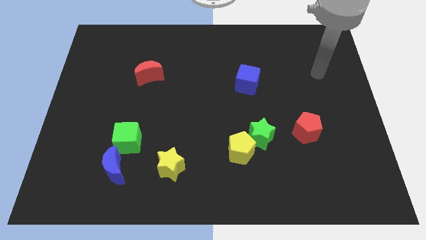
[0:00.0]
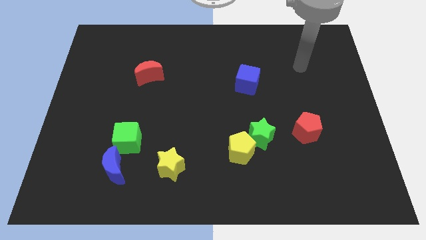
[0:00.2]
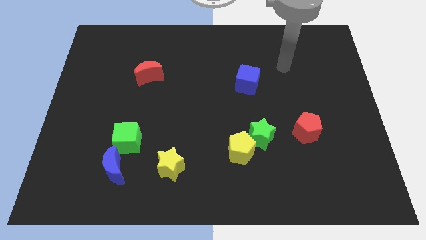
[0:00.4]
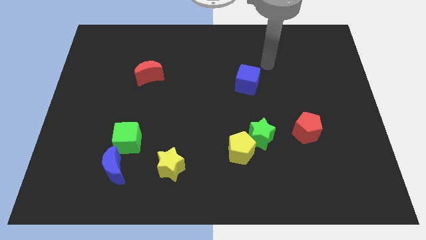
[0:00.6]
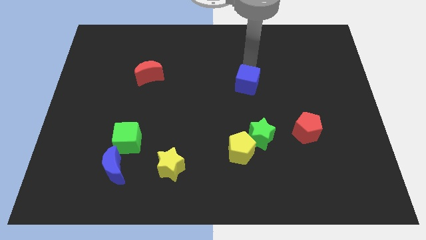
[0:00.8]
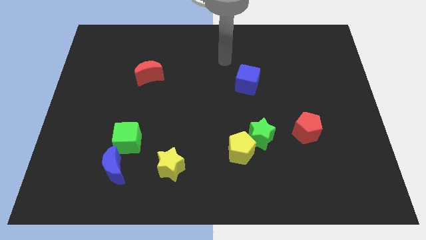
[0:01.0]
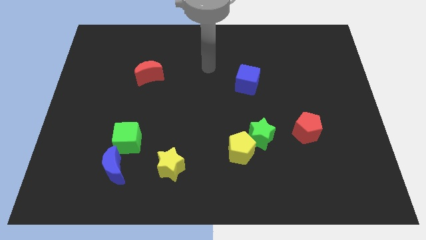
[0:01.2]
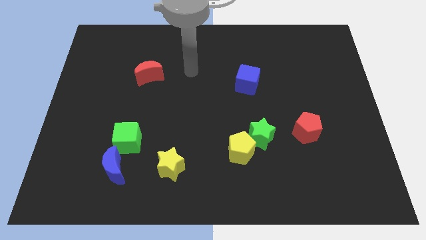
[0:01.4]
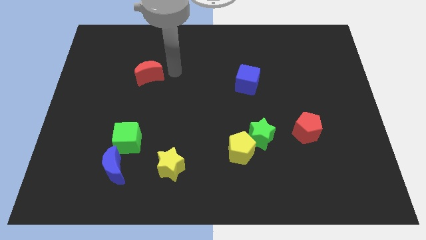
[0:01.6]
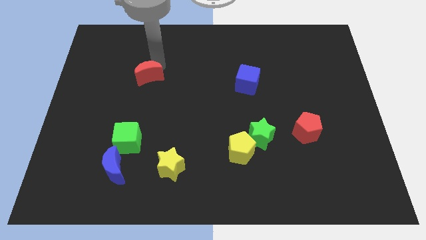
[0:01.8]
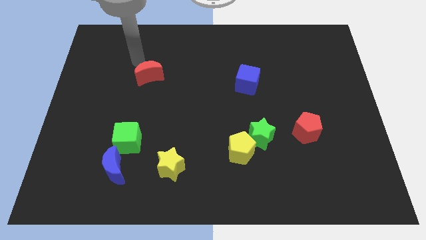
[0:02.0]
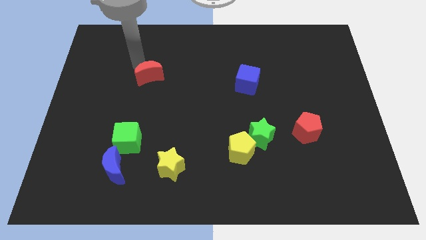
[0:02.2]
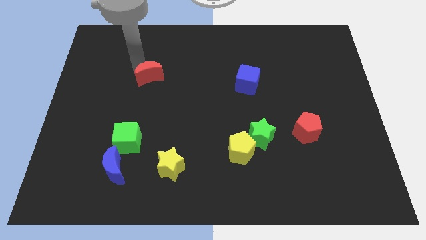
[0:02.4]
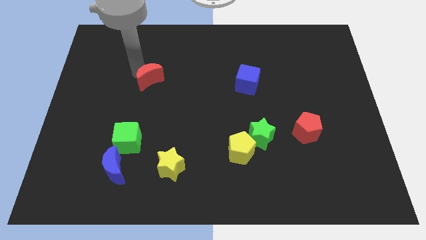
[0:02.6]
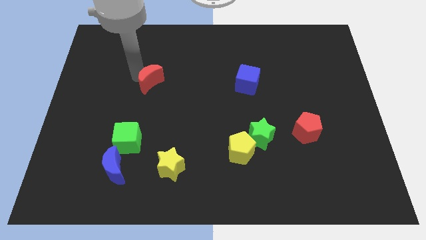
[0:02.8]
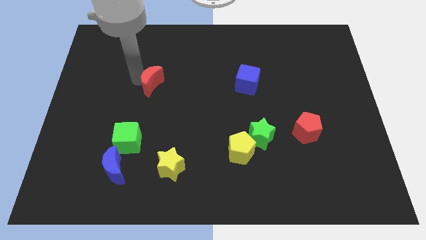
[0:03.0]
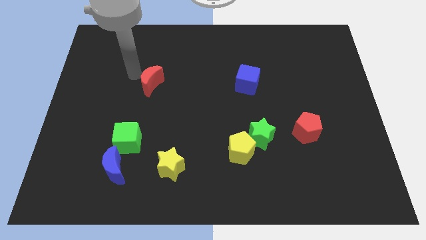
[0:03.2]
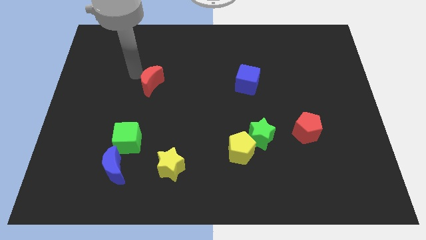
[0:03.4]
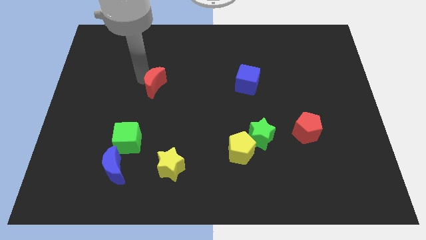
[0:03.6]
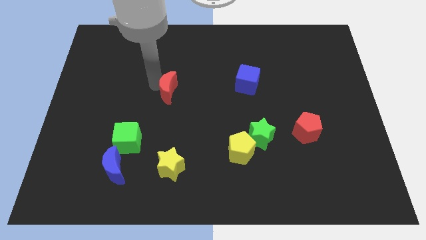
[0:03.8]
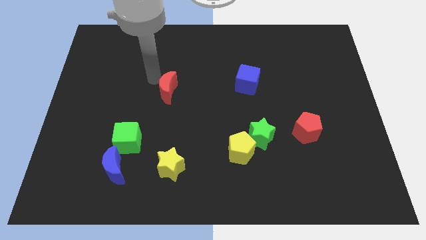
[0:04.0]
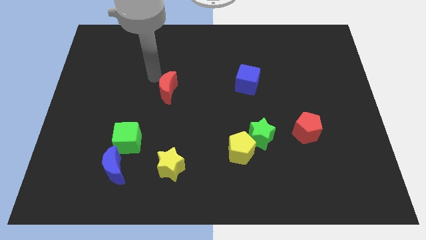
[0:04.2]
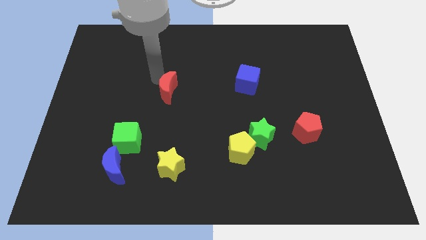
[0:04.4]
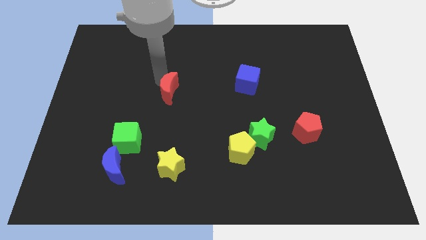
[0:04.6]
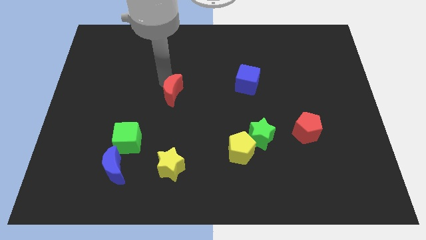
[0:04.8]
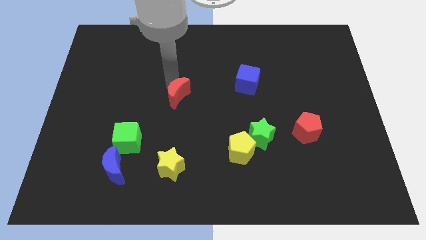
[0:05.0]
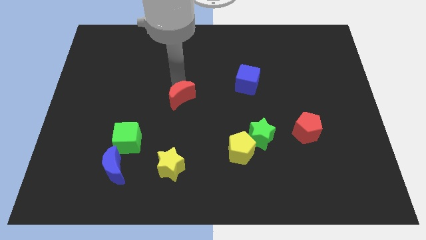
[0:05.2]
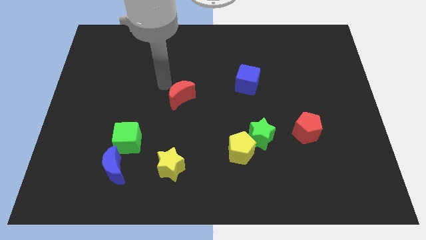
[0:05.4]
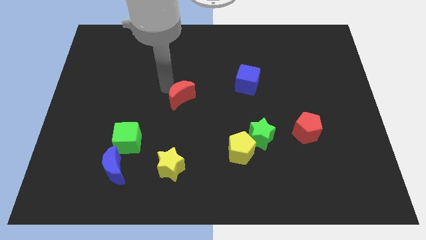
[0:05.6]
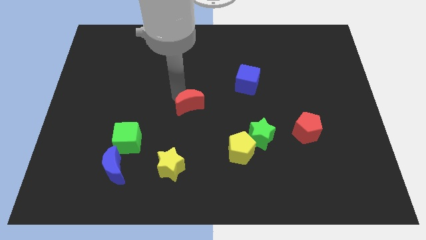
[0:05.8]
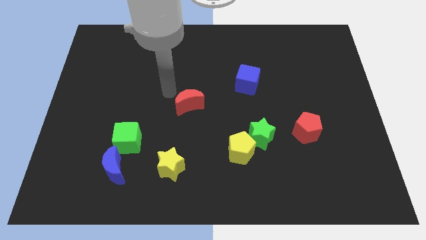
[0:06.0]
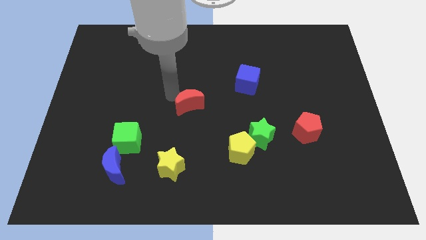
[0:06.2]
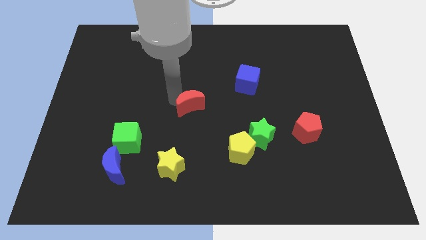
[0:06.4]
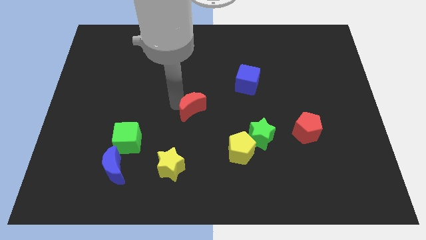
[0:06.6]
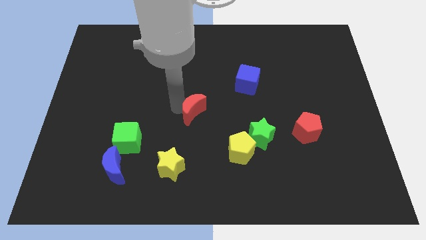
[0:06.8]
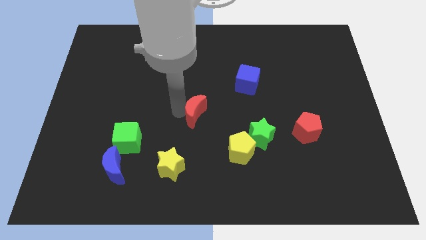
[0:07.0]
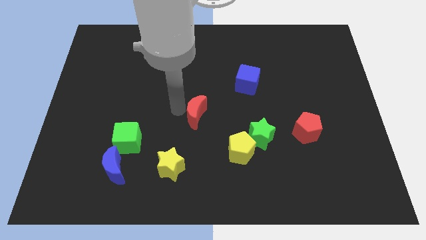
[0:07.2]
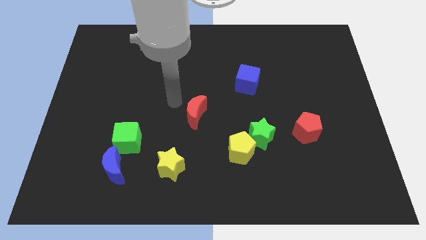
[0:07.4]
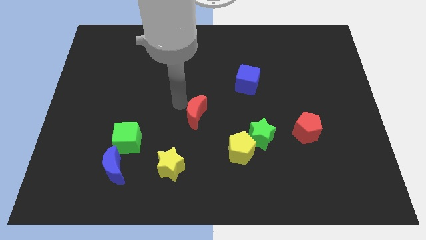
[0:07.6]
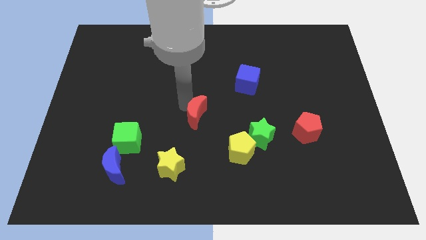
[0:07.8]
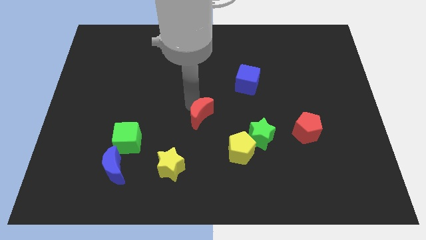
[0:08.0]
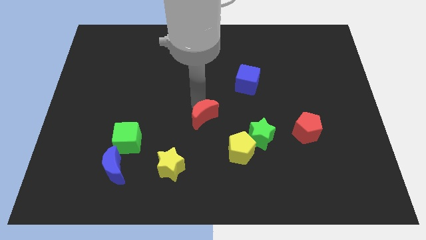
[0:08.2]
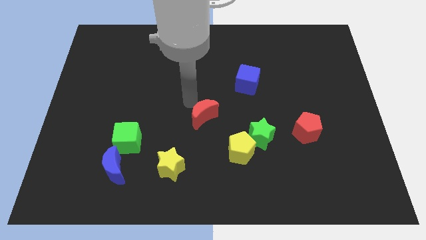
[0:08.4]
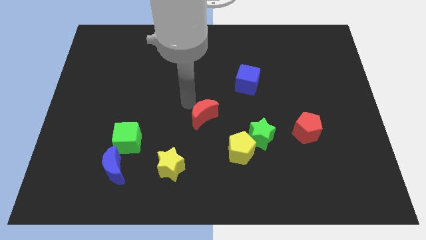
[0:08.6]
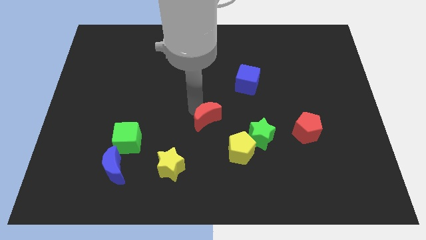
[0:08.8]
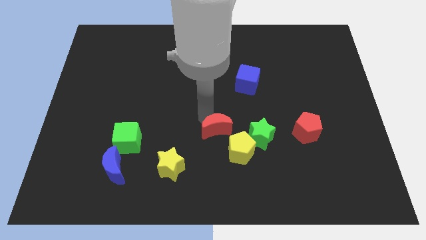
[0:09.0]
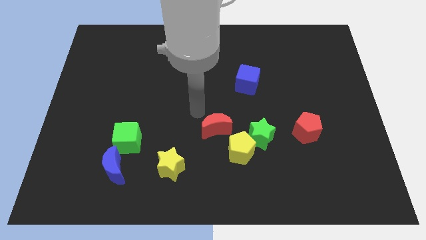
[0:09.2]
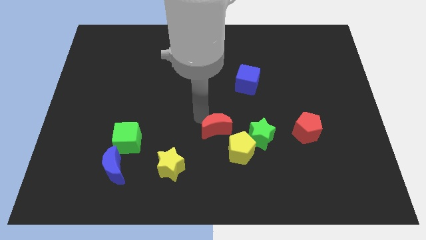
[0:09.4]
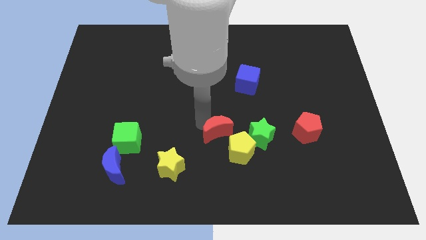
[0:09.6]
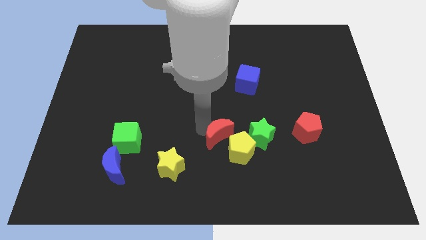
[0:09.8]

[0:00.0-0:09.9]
slide the red moon next to the yellow pentagon

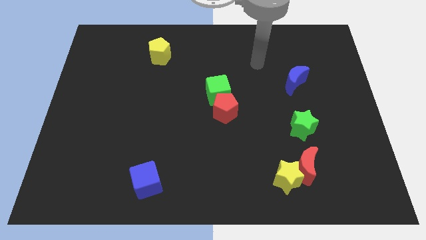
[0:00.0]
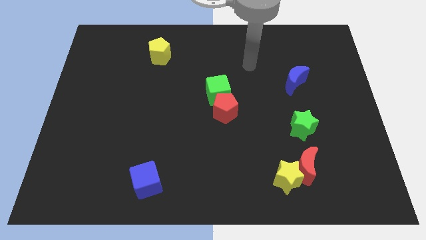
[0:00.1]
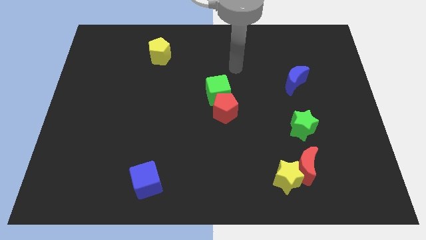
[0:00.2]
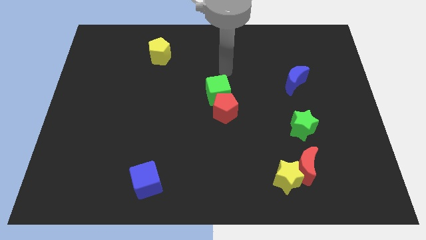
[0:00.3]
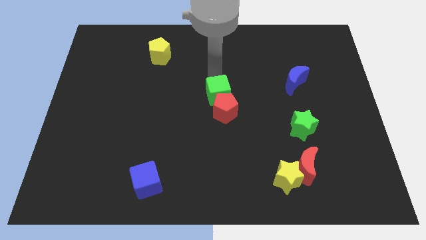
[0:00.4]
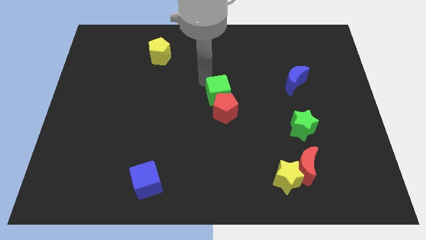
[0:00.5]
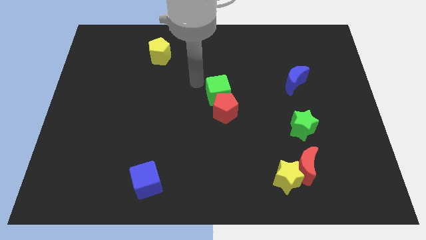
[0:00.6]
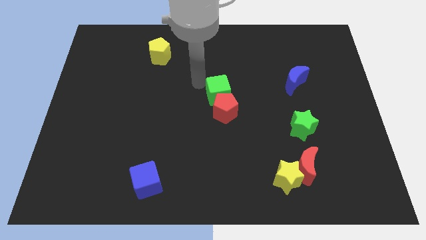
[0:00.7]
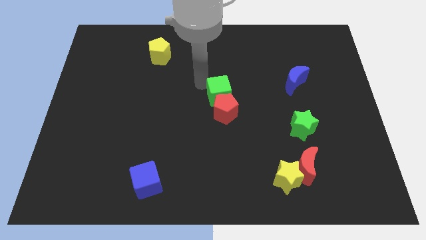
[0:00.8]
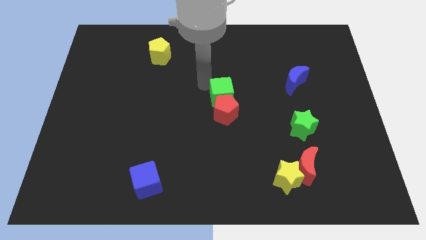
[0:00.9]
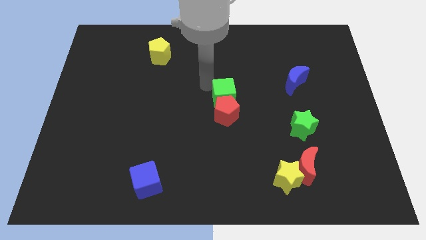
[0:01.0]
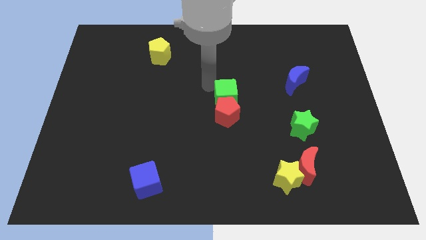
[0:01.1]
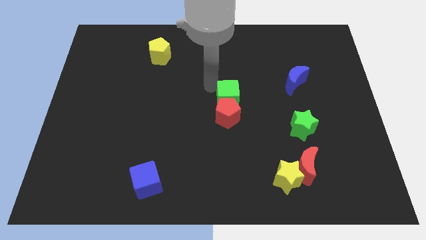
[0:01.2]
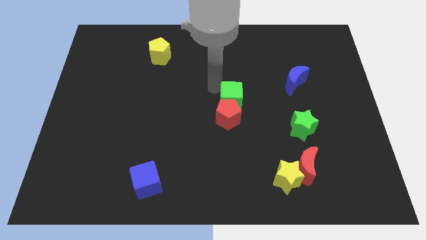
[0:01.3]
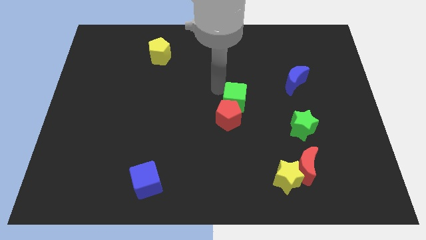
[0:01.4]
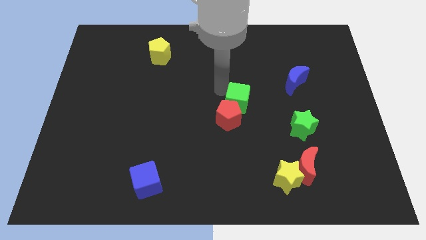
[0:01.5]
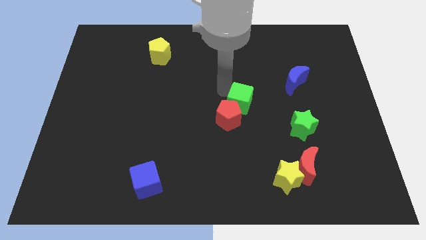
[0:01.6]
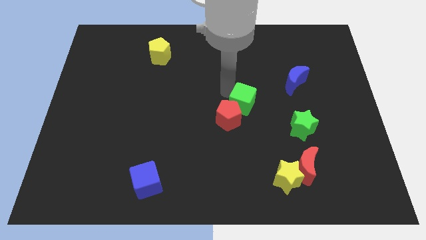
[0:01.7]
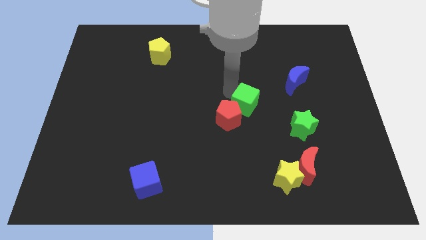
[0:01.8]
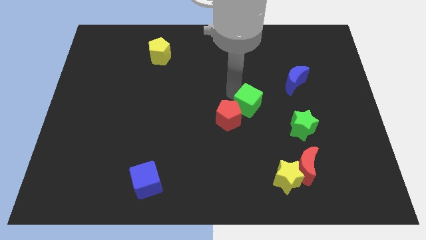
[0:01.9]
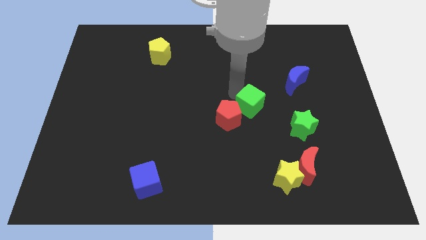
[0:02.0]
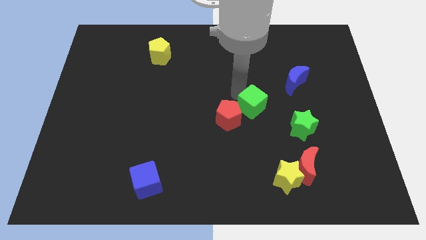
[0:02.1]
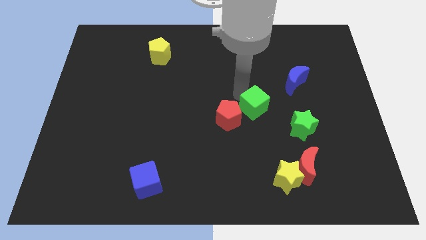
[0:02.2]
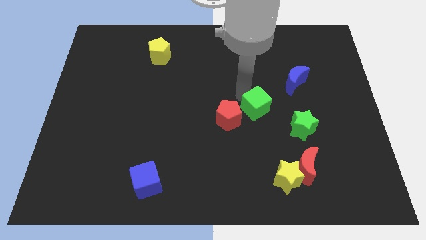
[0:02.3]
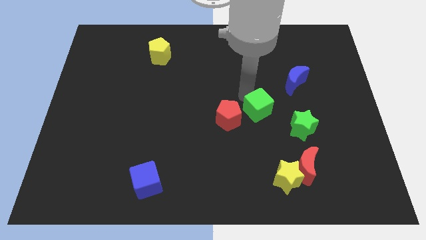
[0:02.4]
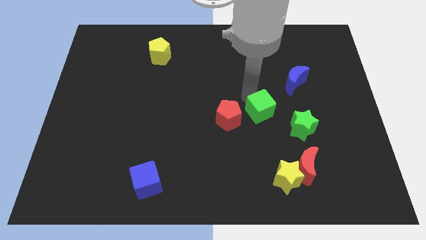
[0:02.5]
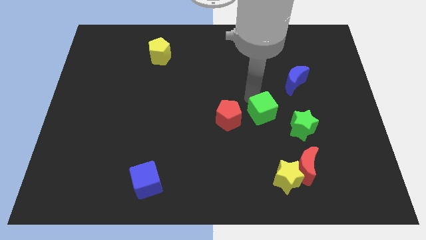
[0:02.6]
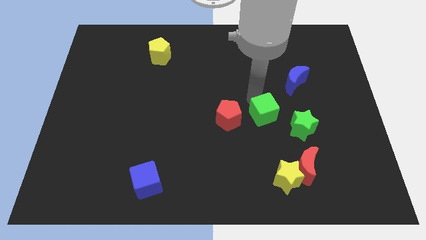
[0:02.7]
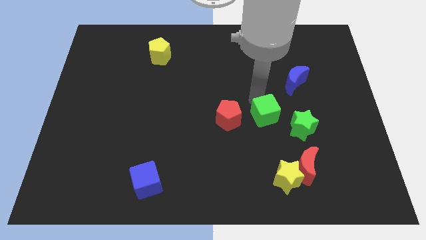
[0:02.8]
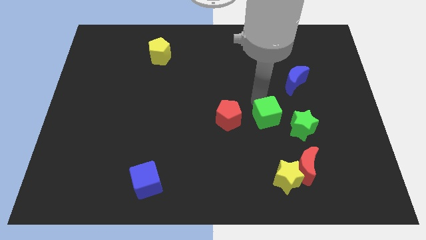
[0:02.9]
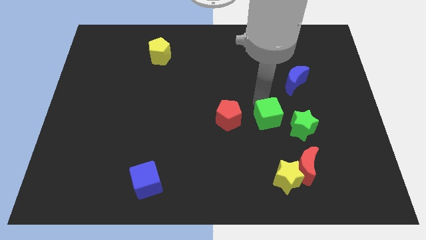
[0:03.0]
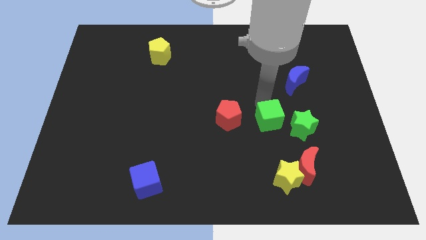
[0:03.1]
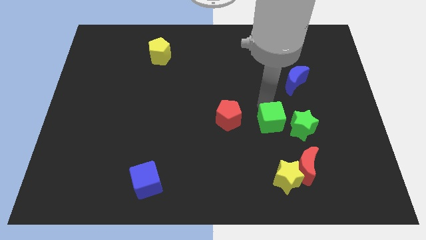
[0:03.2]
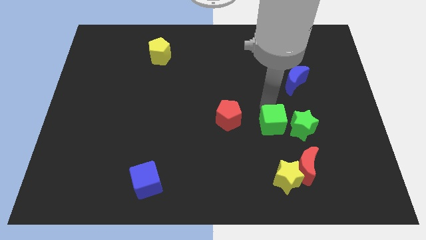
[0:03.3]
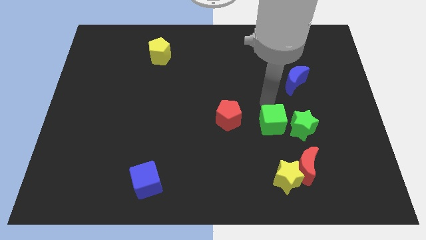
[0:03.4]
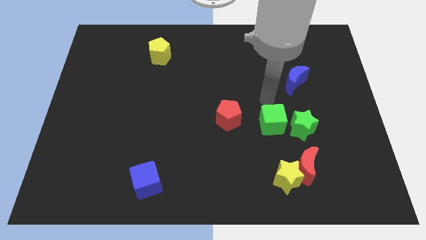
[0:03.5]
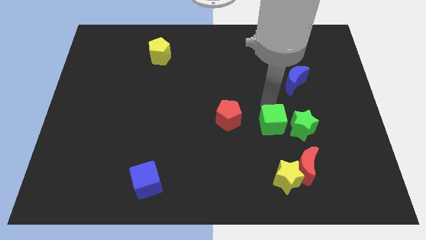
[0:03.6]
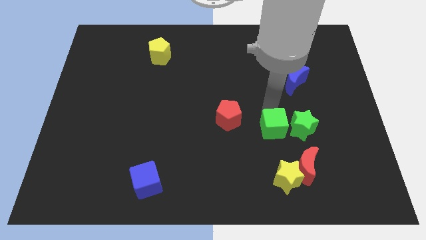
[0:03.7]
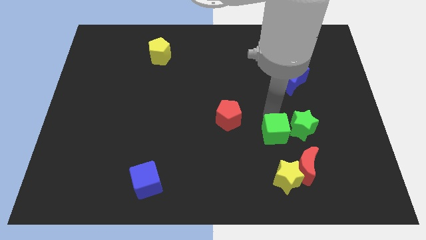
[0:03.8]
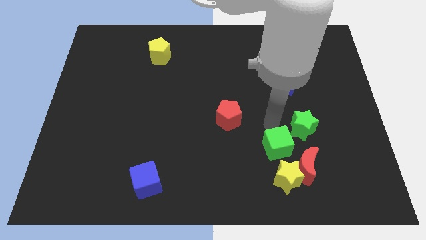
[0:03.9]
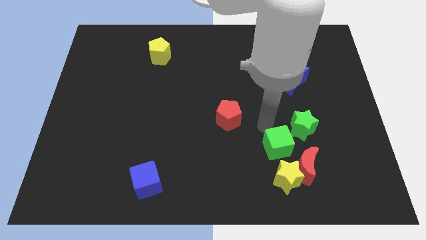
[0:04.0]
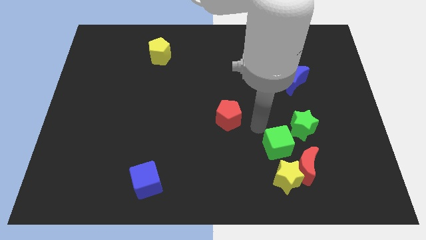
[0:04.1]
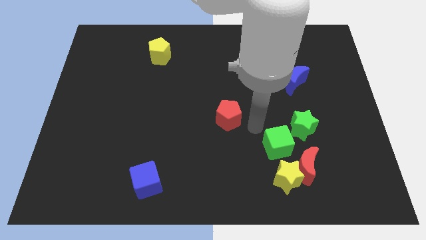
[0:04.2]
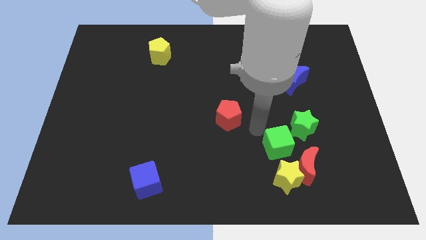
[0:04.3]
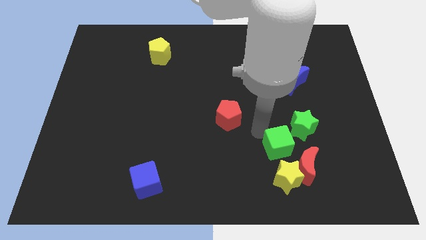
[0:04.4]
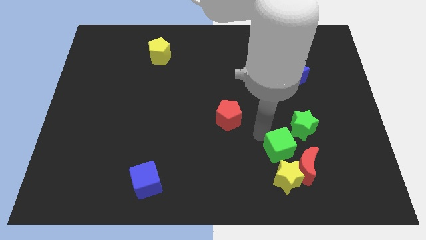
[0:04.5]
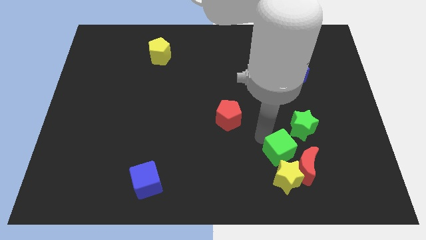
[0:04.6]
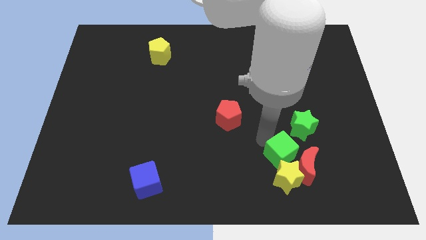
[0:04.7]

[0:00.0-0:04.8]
slide the green cube to the red moon
